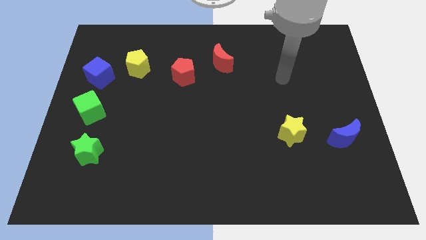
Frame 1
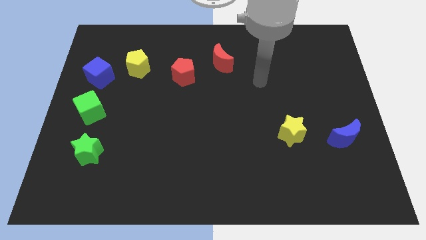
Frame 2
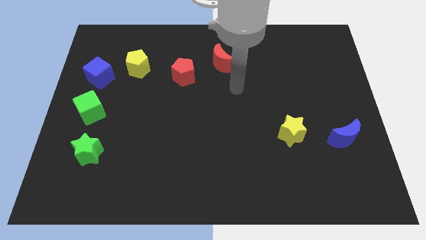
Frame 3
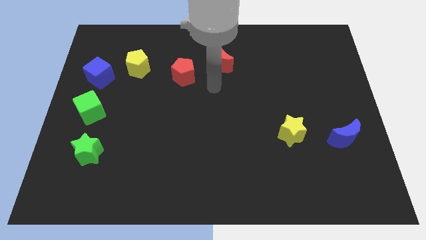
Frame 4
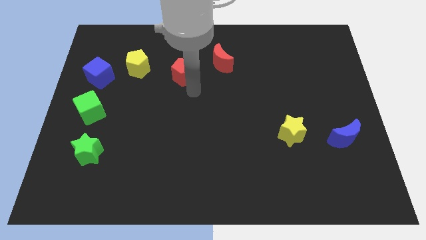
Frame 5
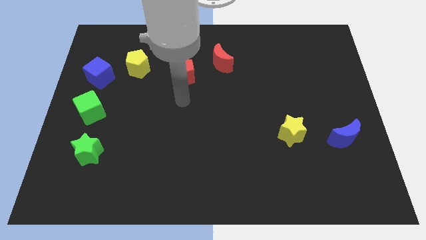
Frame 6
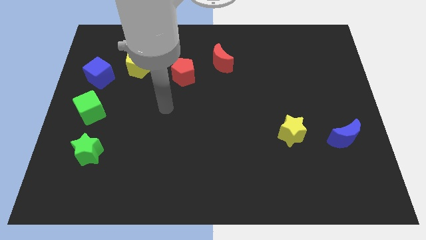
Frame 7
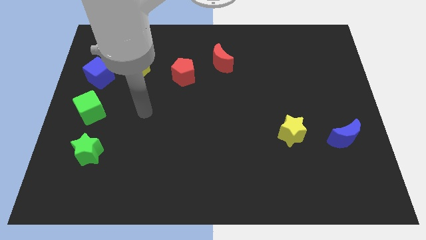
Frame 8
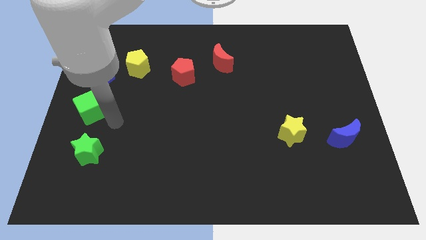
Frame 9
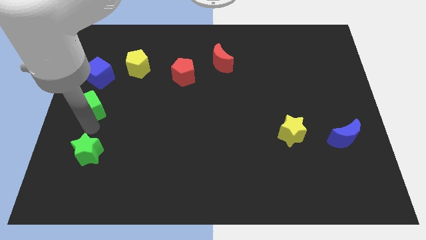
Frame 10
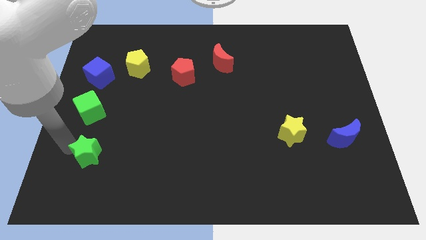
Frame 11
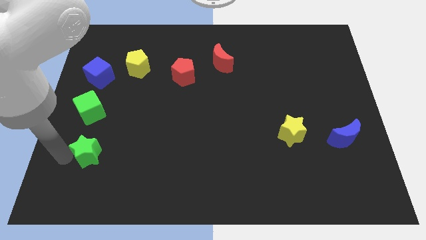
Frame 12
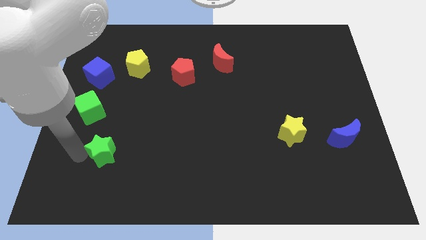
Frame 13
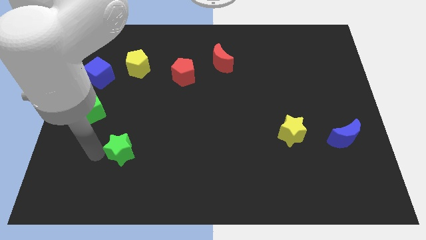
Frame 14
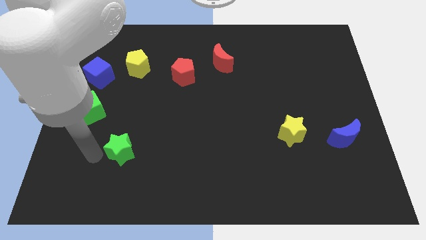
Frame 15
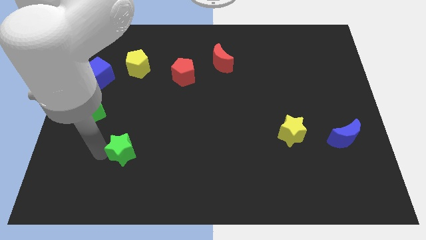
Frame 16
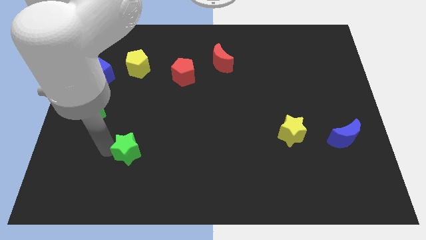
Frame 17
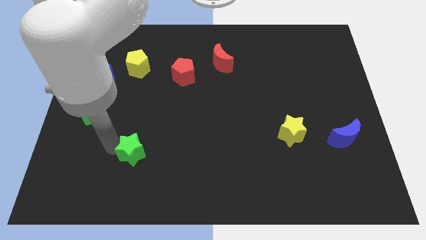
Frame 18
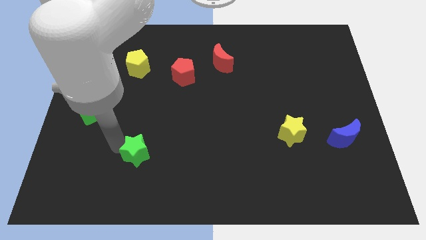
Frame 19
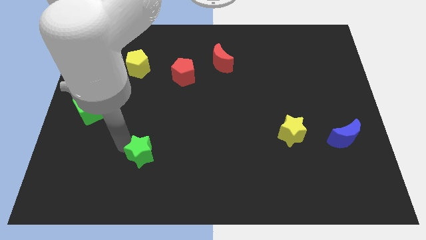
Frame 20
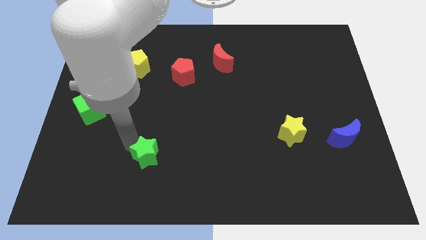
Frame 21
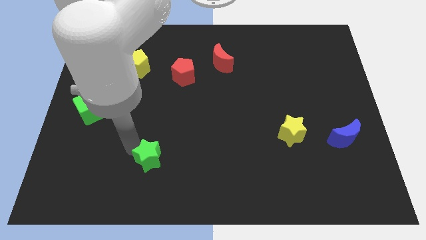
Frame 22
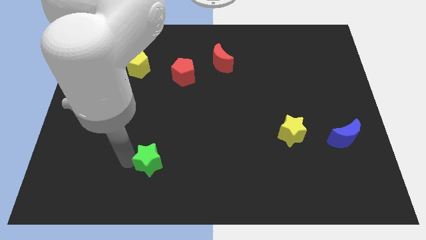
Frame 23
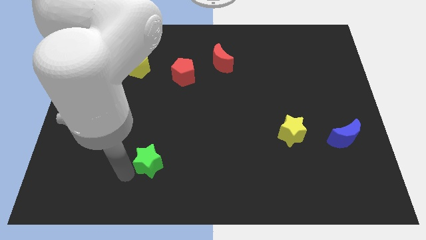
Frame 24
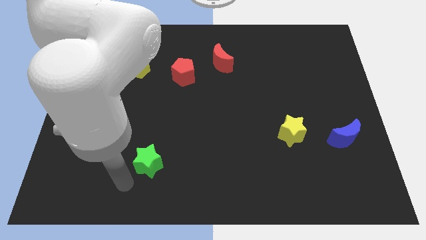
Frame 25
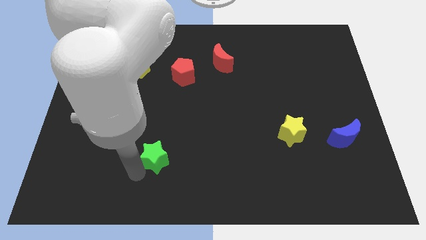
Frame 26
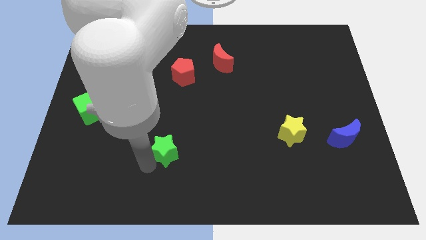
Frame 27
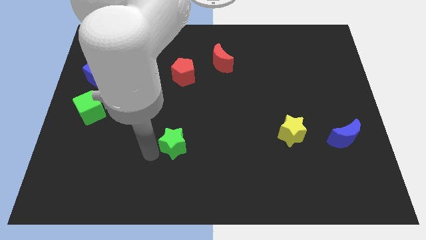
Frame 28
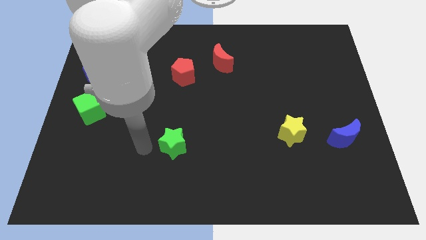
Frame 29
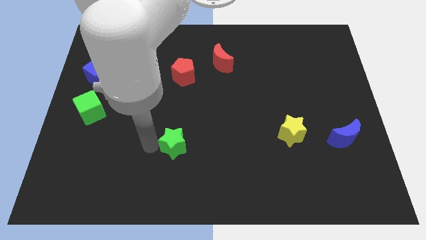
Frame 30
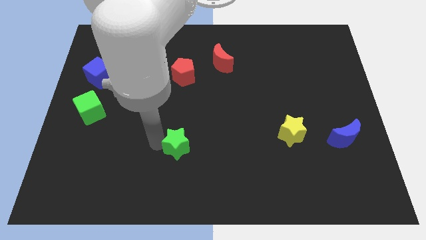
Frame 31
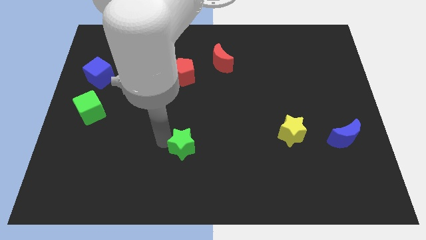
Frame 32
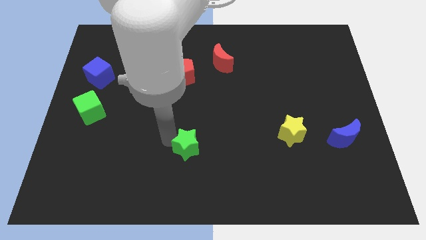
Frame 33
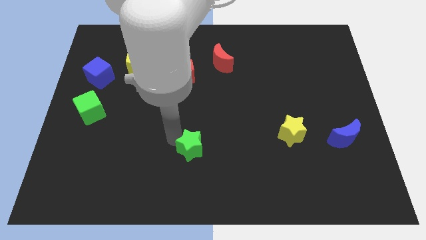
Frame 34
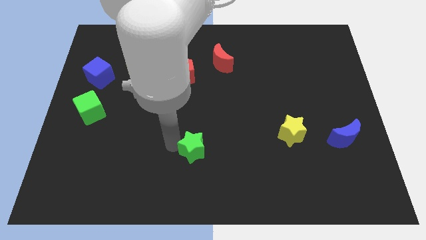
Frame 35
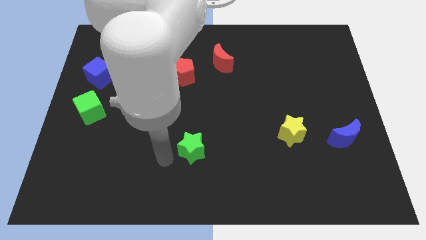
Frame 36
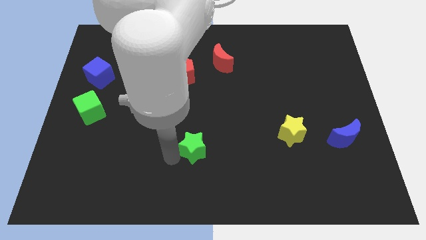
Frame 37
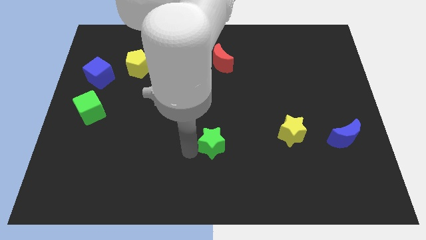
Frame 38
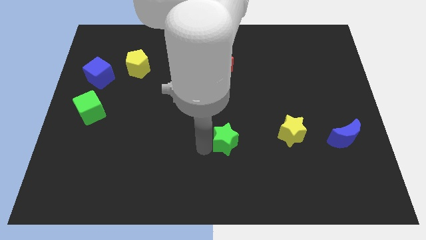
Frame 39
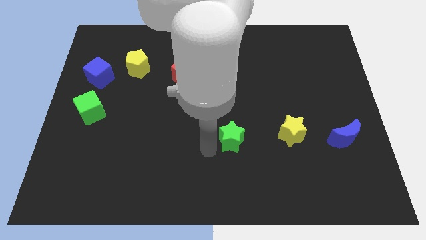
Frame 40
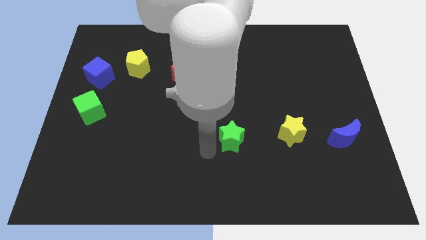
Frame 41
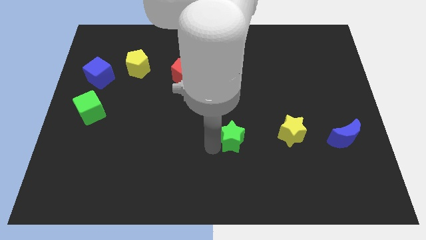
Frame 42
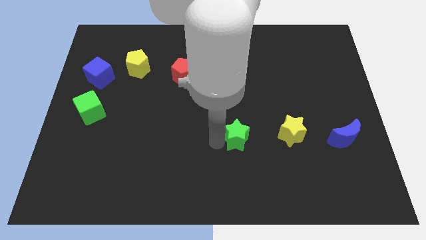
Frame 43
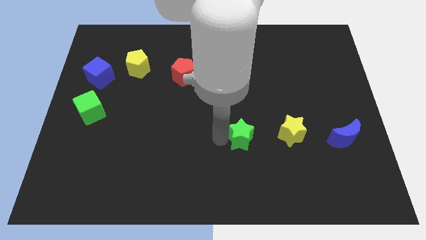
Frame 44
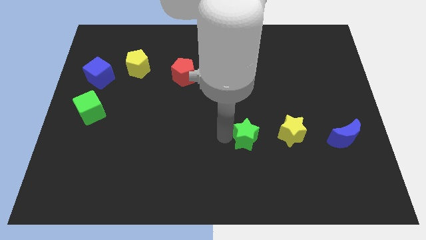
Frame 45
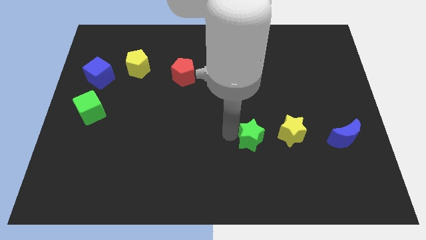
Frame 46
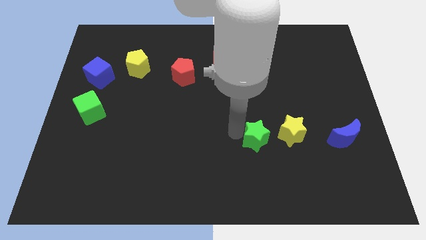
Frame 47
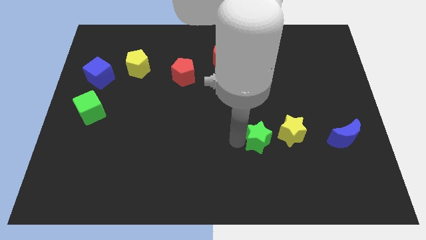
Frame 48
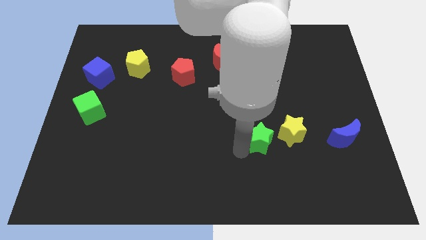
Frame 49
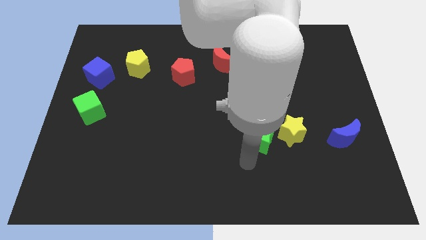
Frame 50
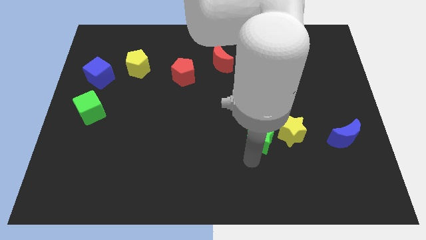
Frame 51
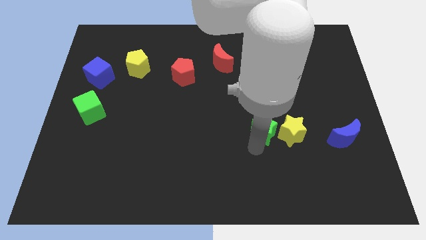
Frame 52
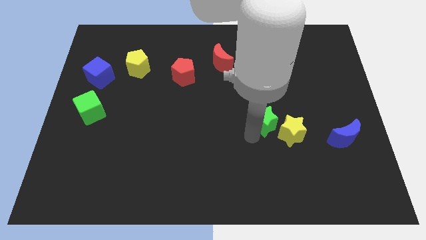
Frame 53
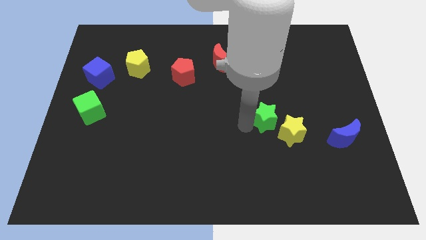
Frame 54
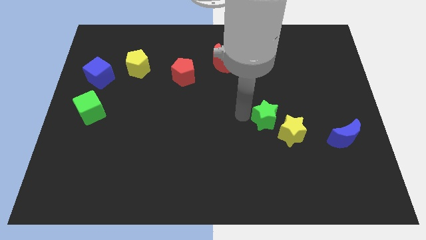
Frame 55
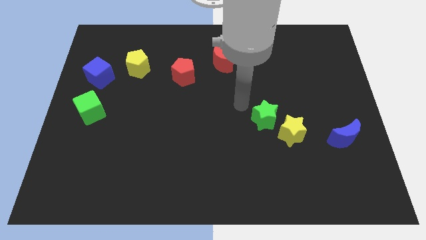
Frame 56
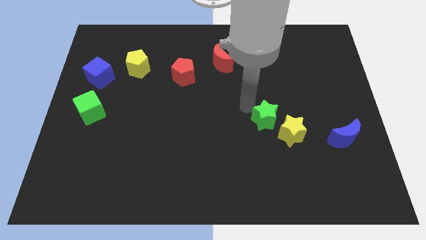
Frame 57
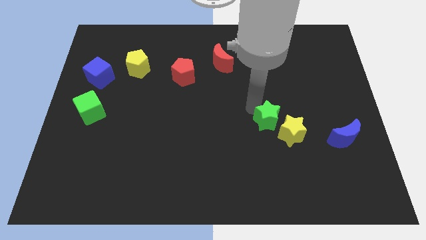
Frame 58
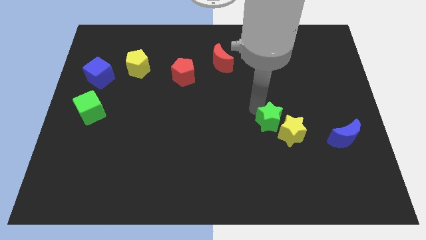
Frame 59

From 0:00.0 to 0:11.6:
slide the green star close to the yellow star

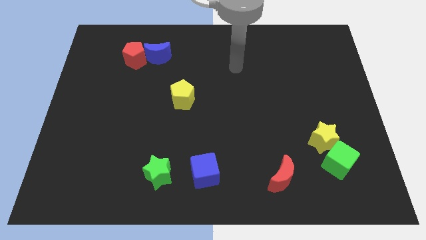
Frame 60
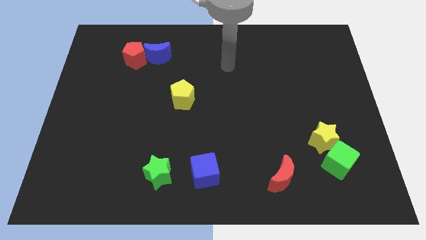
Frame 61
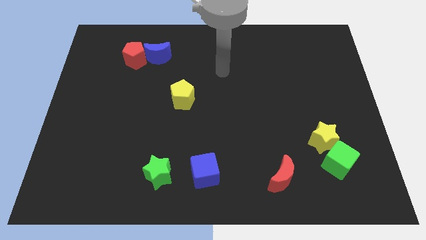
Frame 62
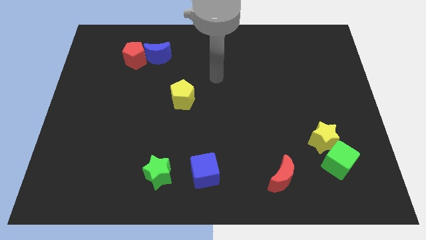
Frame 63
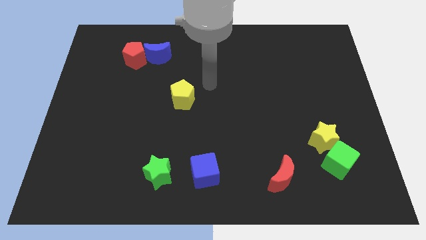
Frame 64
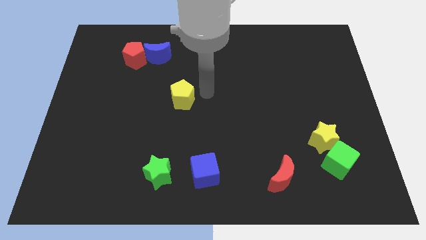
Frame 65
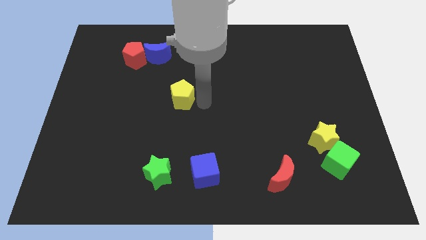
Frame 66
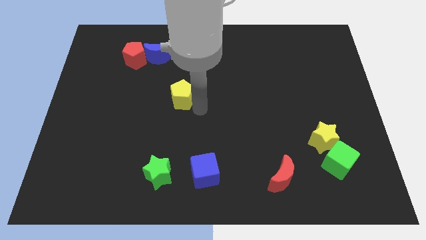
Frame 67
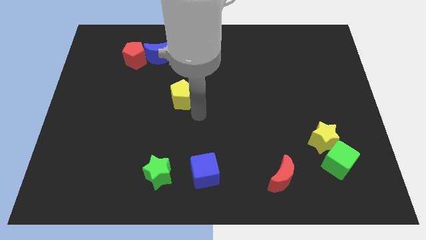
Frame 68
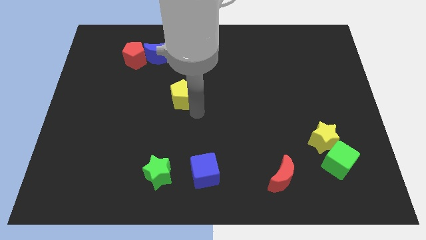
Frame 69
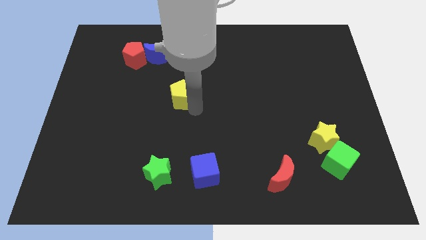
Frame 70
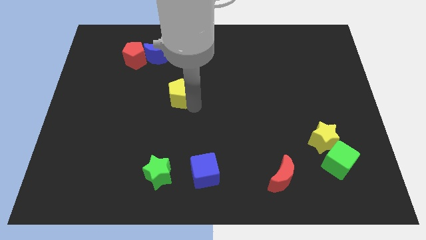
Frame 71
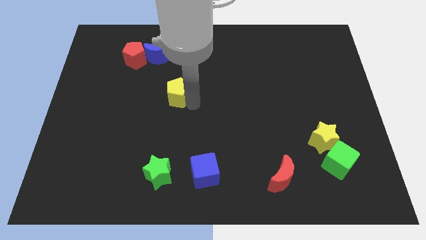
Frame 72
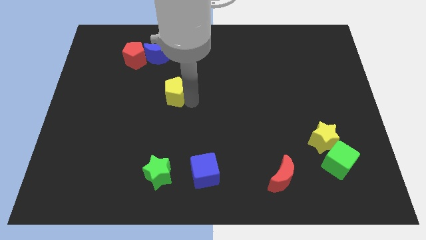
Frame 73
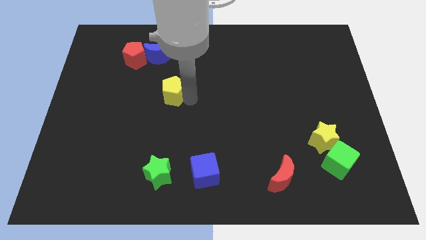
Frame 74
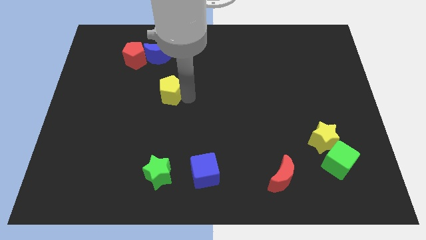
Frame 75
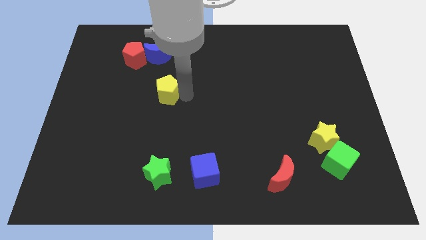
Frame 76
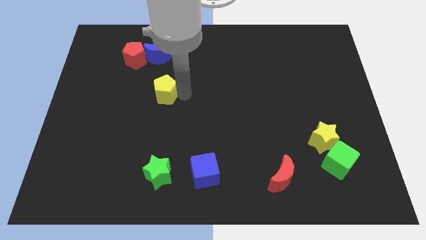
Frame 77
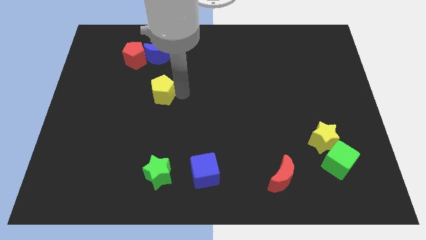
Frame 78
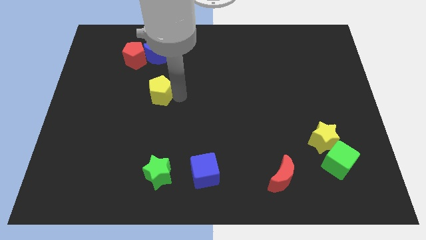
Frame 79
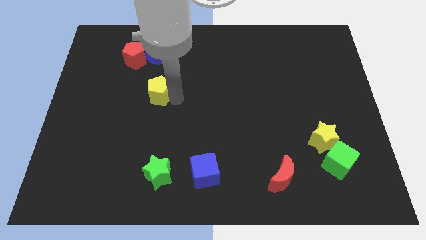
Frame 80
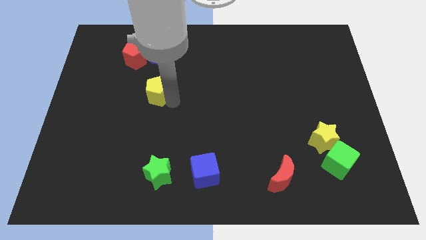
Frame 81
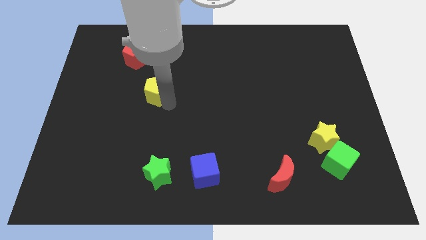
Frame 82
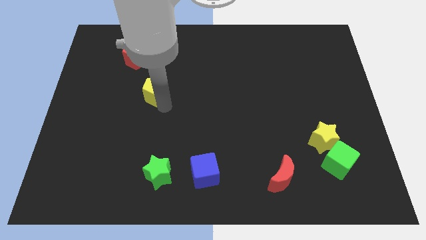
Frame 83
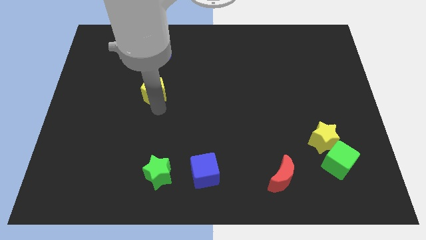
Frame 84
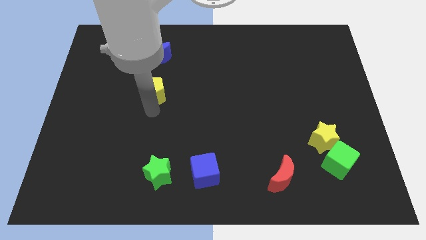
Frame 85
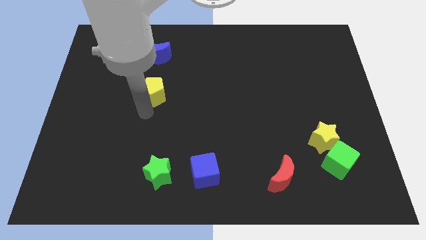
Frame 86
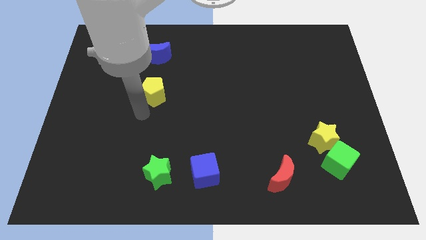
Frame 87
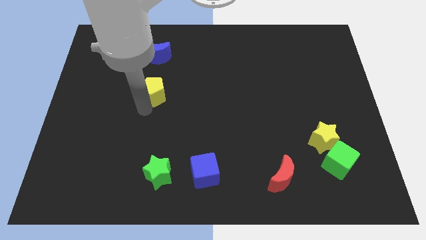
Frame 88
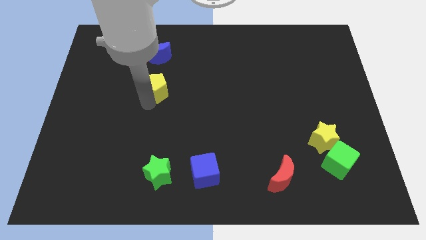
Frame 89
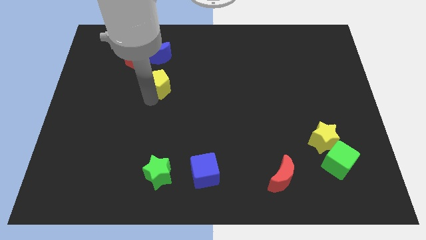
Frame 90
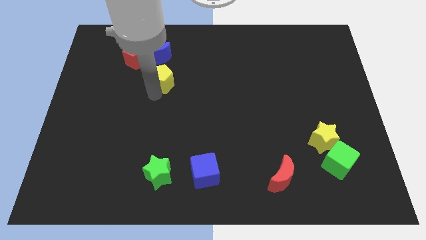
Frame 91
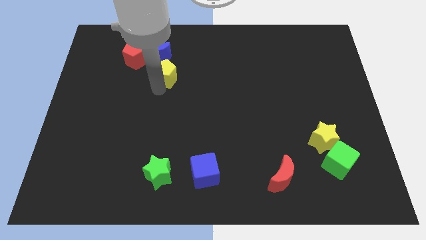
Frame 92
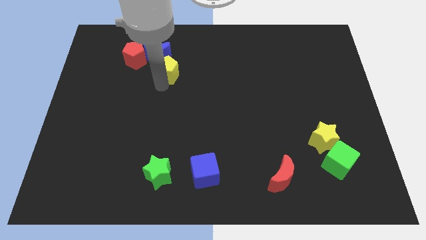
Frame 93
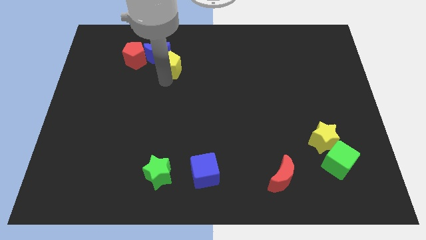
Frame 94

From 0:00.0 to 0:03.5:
put the yellow pentagon close to the blue moon
